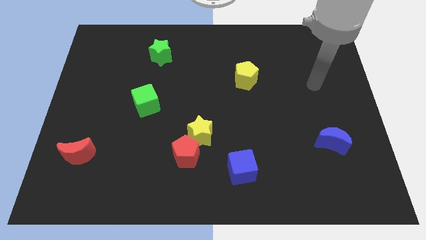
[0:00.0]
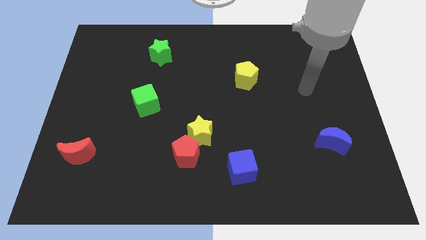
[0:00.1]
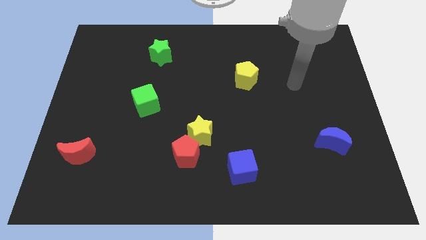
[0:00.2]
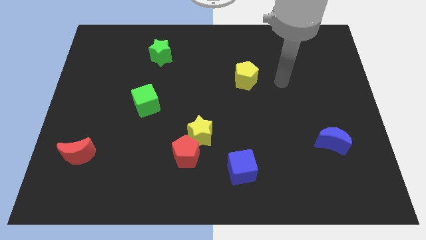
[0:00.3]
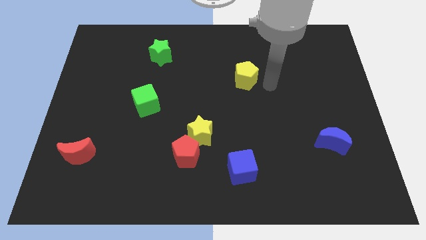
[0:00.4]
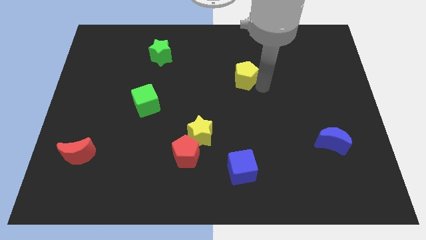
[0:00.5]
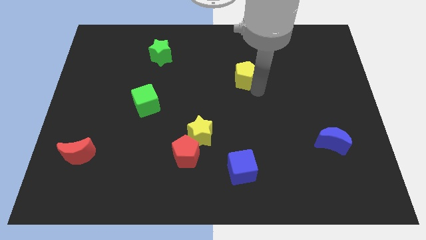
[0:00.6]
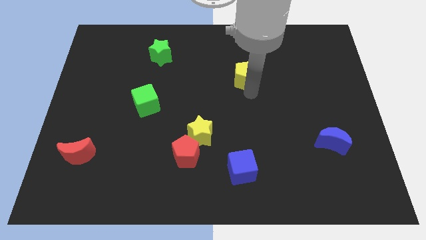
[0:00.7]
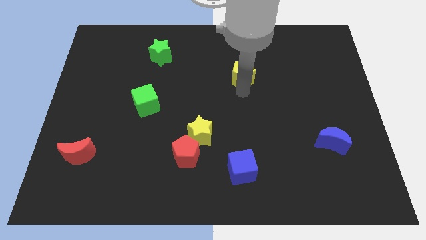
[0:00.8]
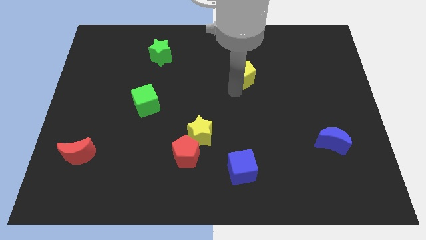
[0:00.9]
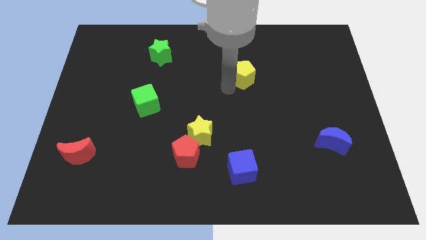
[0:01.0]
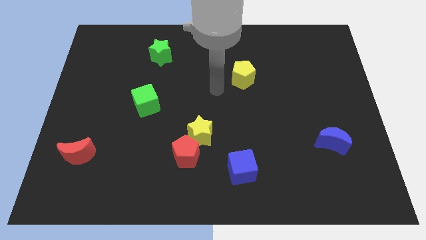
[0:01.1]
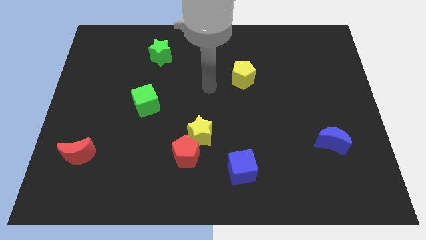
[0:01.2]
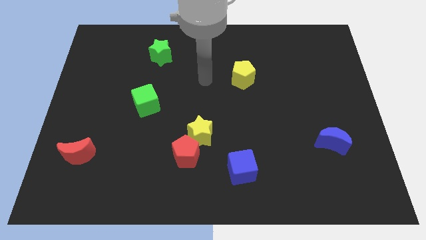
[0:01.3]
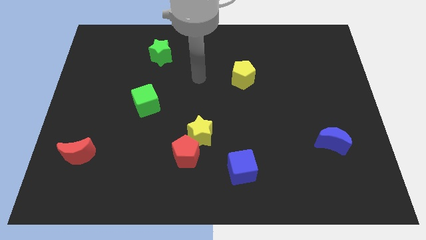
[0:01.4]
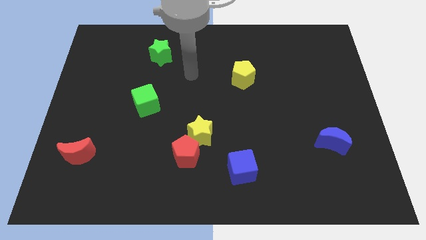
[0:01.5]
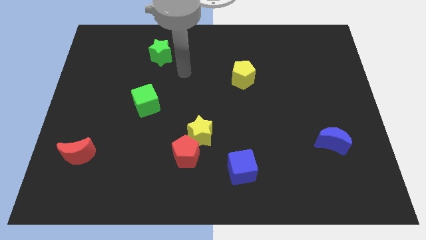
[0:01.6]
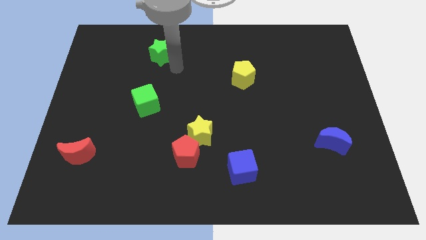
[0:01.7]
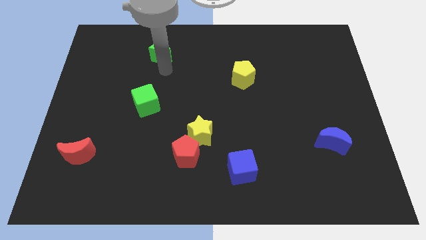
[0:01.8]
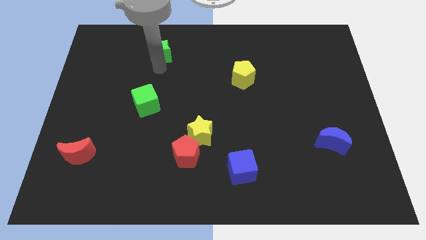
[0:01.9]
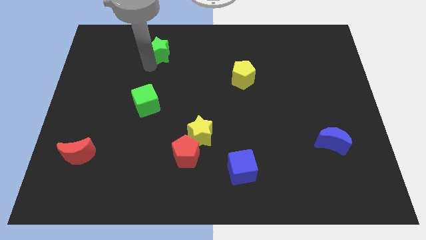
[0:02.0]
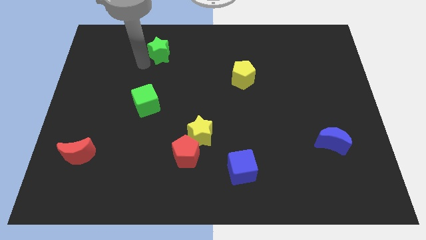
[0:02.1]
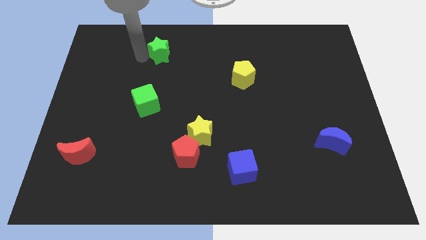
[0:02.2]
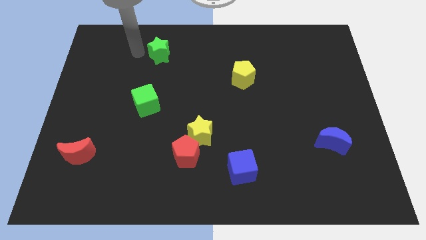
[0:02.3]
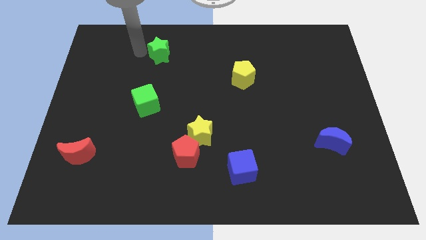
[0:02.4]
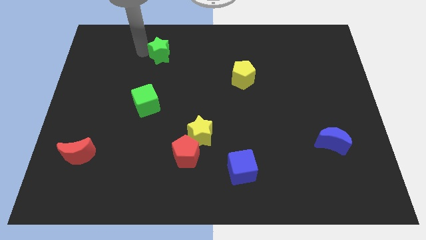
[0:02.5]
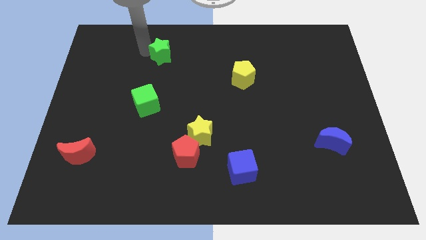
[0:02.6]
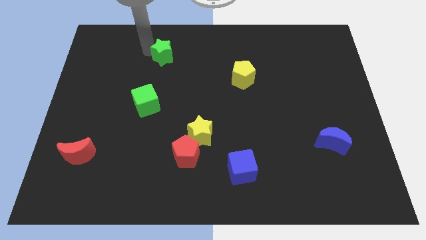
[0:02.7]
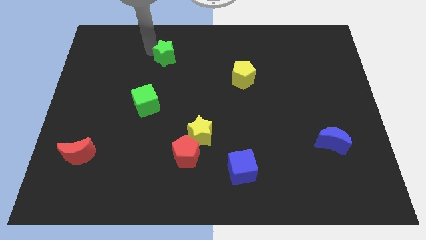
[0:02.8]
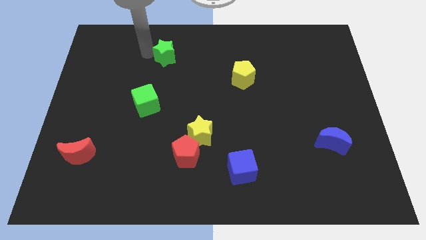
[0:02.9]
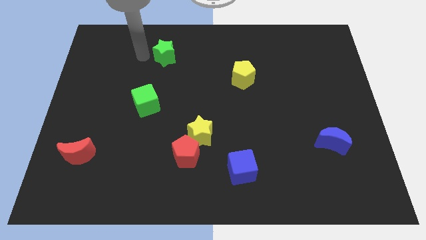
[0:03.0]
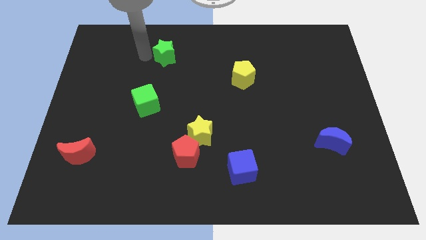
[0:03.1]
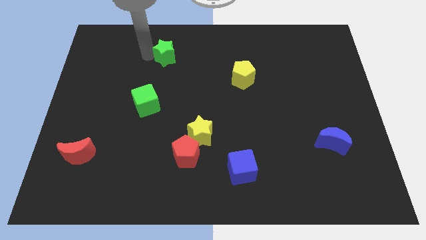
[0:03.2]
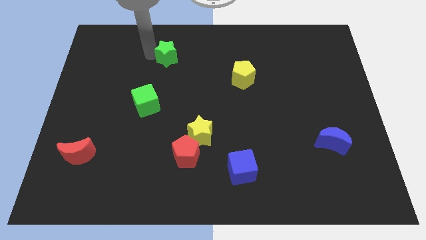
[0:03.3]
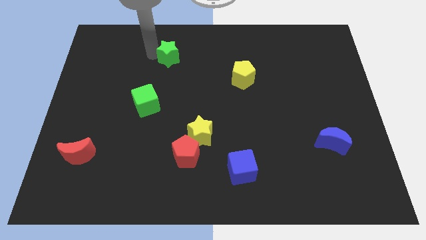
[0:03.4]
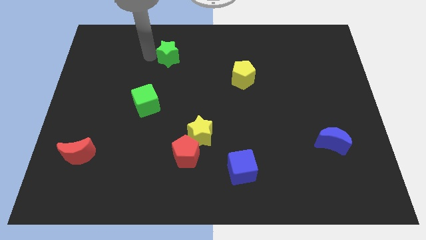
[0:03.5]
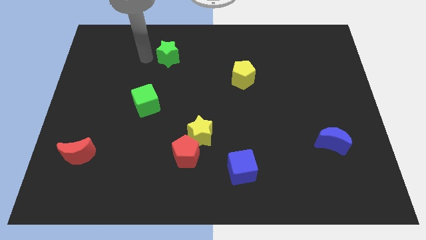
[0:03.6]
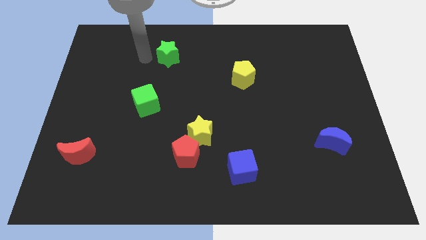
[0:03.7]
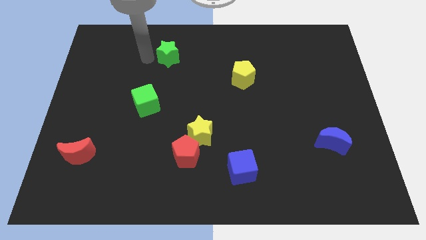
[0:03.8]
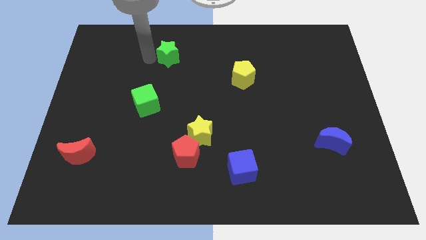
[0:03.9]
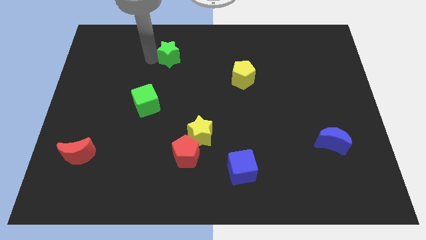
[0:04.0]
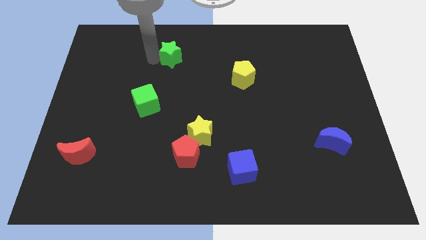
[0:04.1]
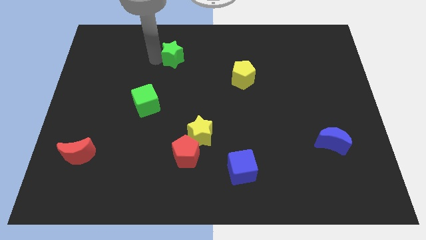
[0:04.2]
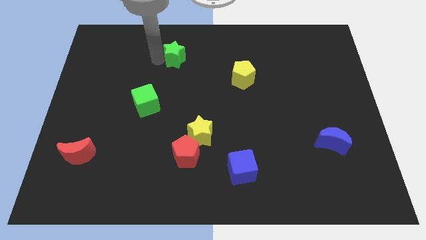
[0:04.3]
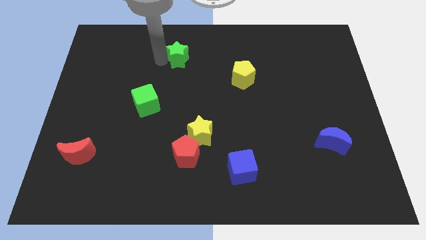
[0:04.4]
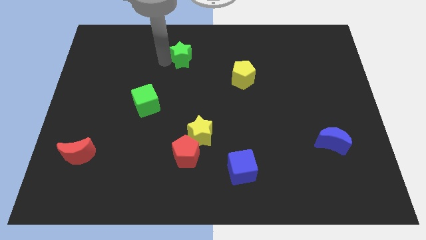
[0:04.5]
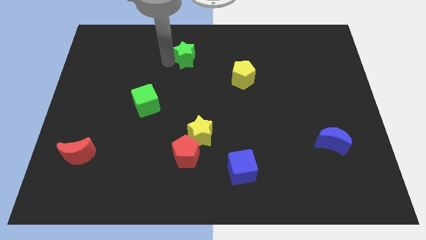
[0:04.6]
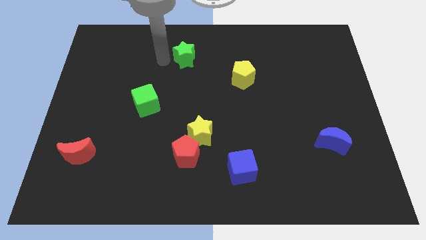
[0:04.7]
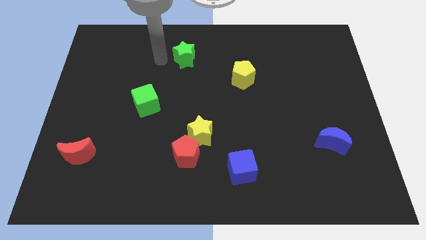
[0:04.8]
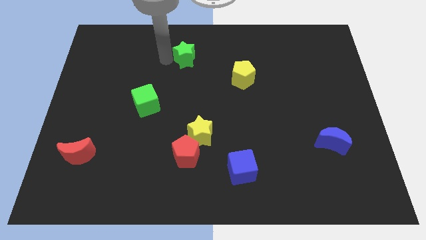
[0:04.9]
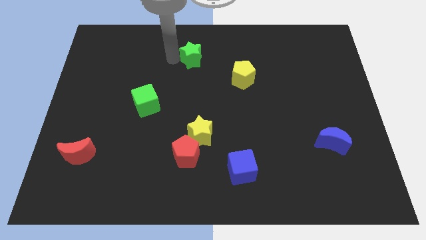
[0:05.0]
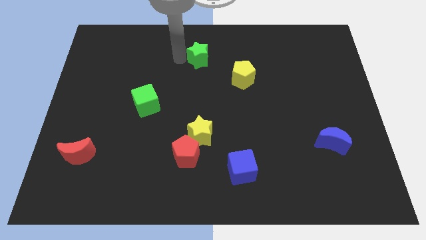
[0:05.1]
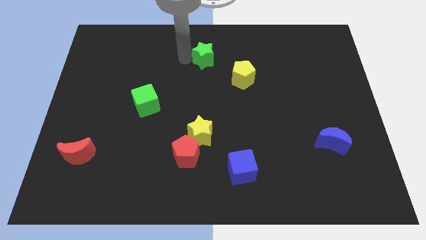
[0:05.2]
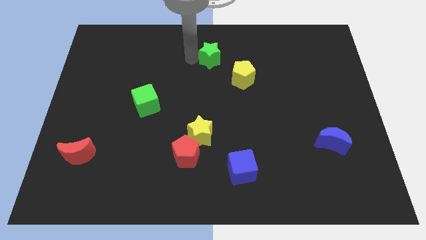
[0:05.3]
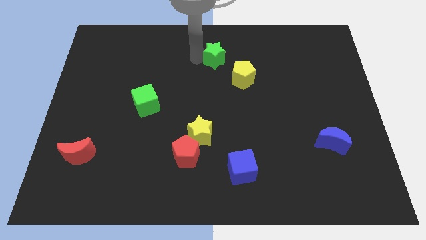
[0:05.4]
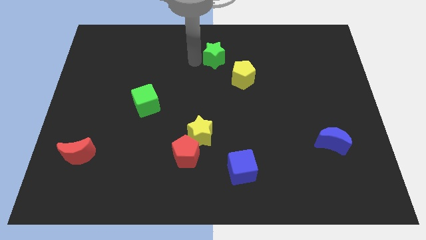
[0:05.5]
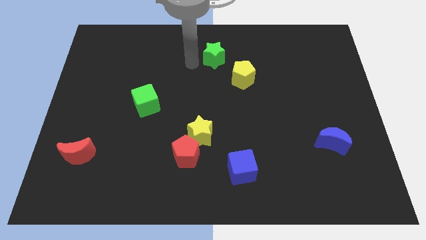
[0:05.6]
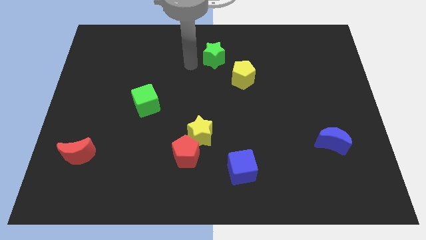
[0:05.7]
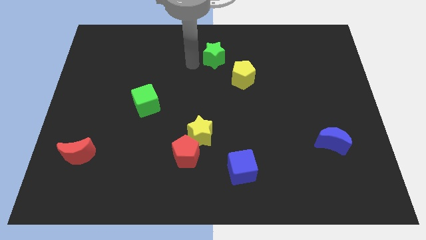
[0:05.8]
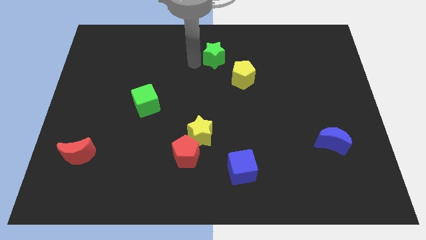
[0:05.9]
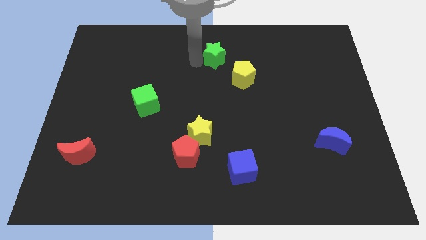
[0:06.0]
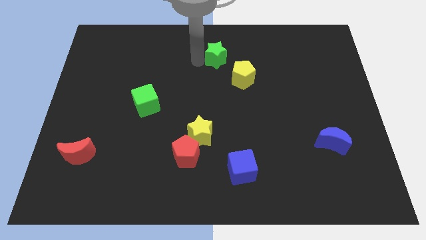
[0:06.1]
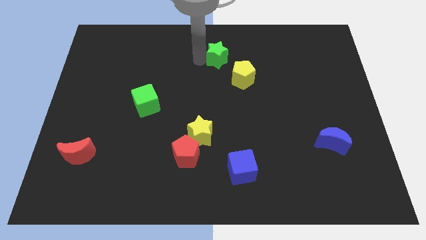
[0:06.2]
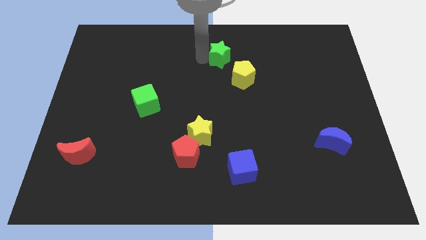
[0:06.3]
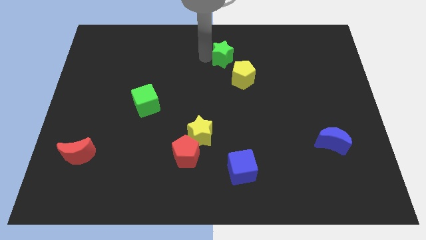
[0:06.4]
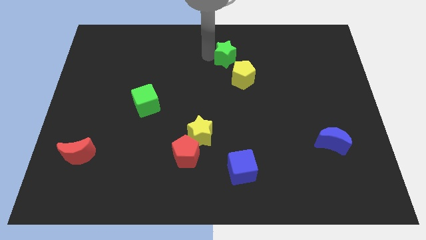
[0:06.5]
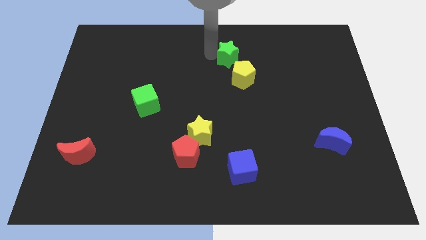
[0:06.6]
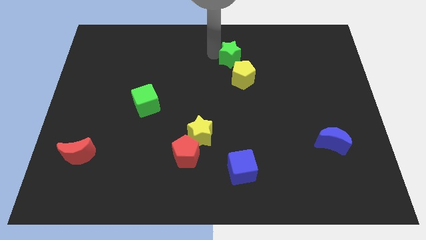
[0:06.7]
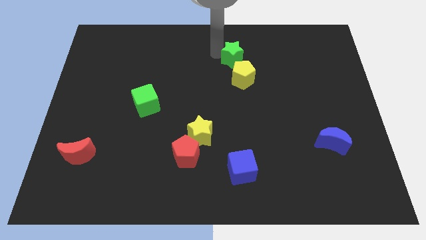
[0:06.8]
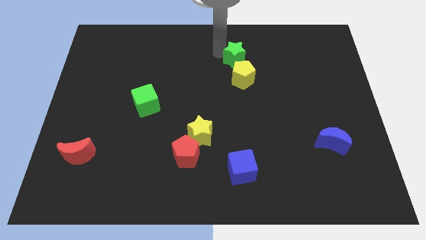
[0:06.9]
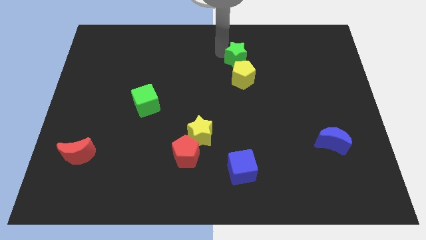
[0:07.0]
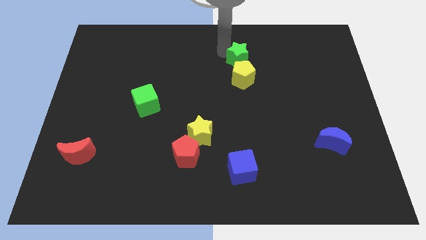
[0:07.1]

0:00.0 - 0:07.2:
push the green star to the right

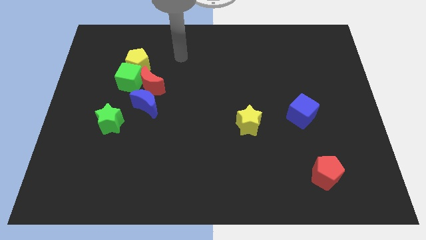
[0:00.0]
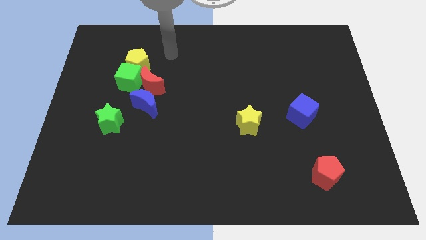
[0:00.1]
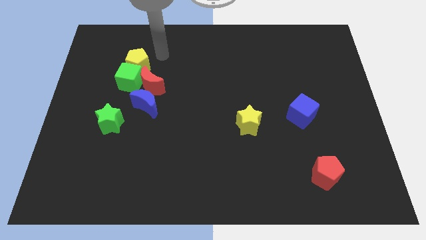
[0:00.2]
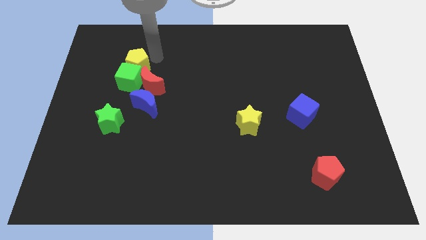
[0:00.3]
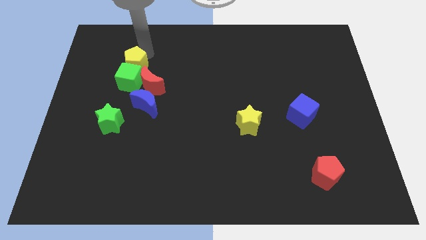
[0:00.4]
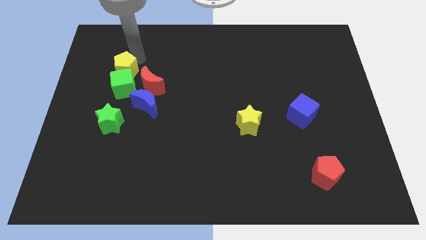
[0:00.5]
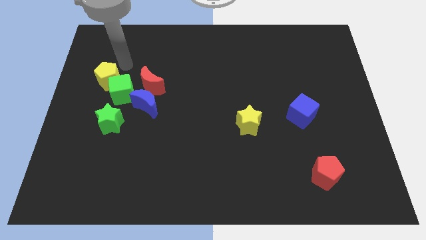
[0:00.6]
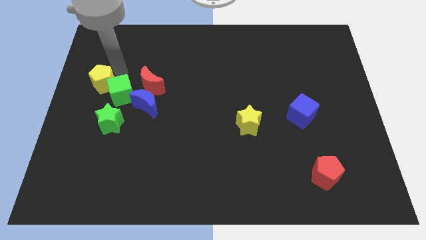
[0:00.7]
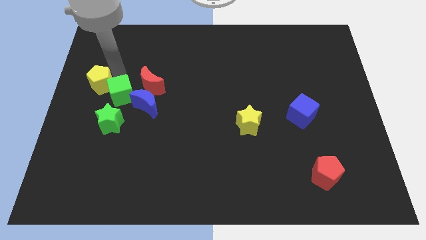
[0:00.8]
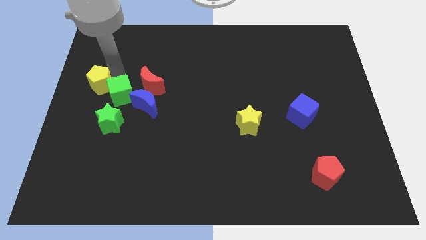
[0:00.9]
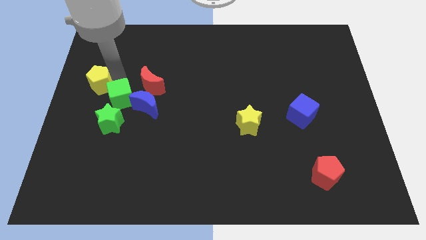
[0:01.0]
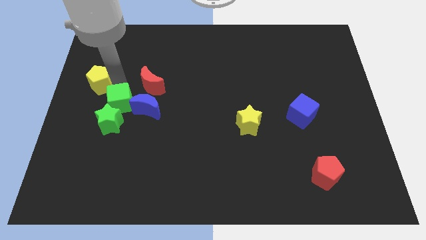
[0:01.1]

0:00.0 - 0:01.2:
slide the green cube a little downwards
